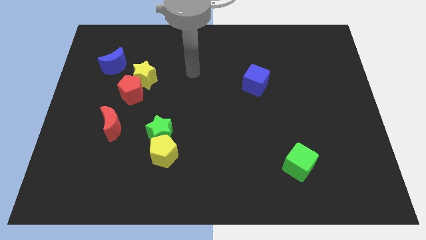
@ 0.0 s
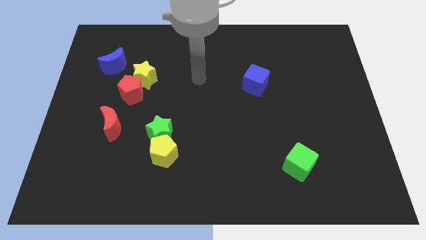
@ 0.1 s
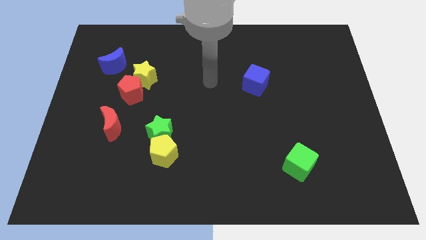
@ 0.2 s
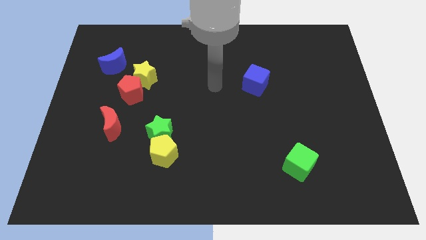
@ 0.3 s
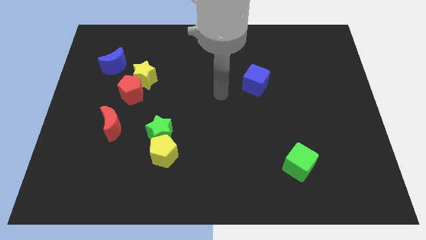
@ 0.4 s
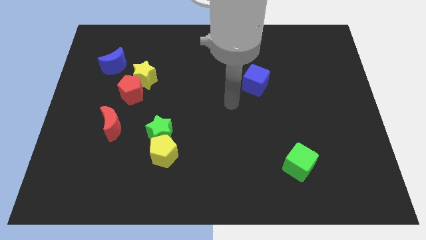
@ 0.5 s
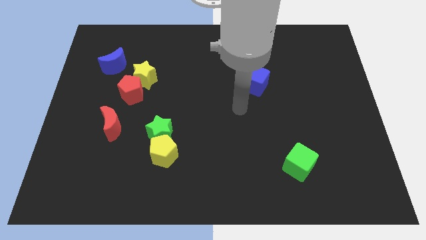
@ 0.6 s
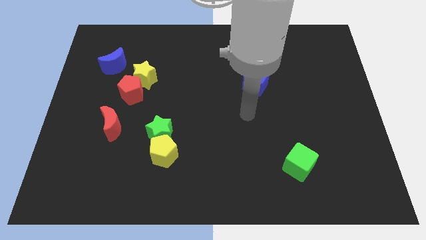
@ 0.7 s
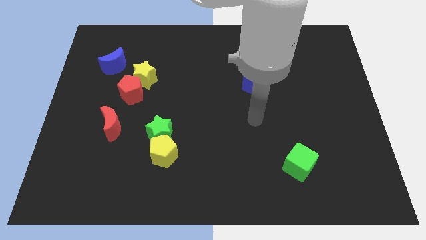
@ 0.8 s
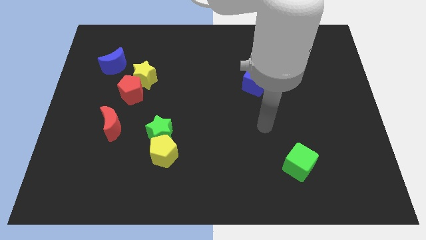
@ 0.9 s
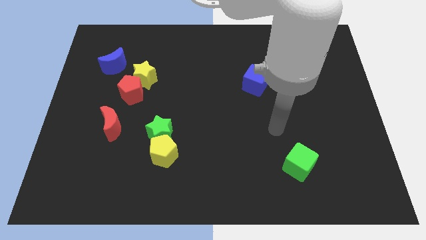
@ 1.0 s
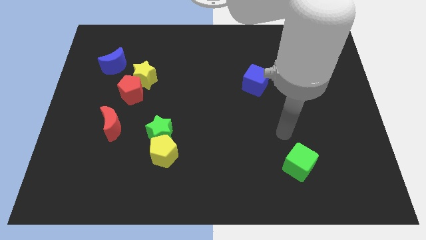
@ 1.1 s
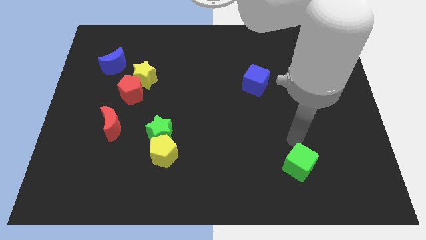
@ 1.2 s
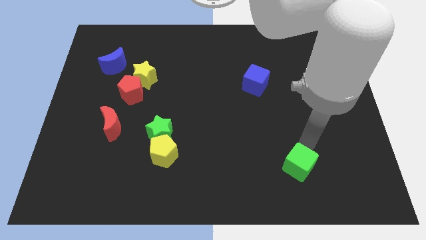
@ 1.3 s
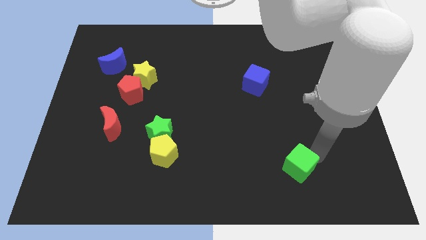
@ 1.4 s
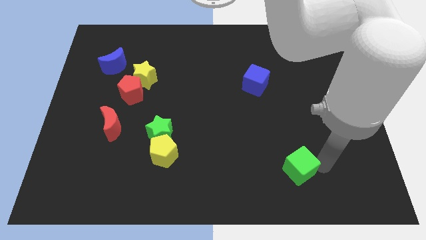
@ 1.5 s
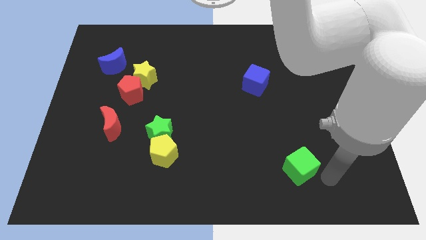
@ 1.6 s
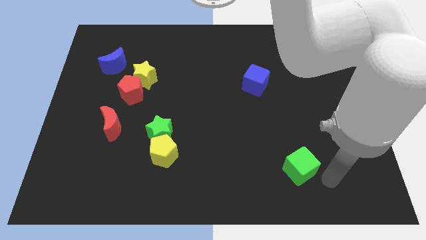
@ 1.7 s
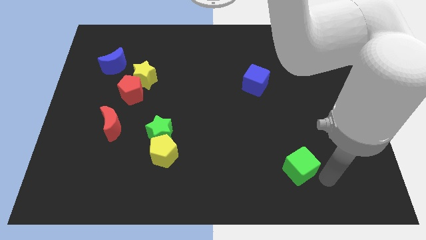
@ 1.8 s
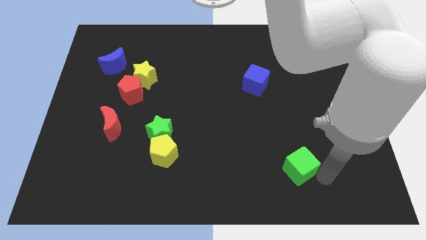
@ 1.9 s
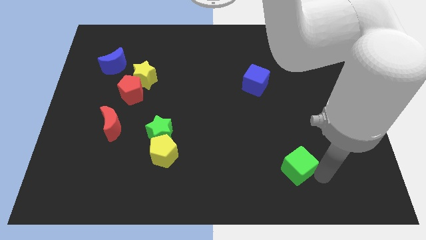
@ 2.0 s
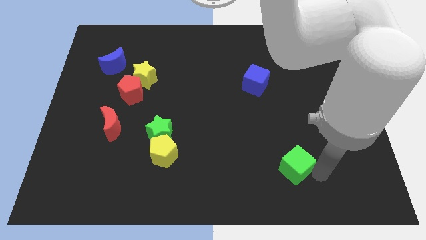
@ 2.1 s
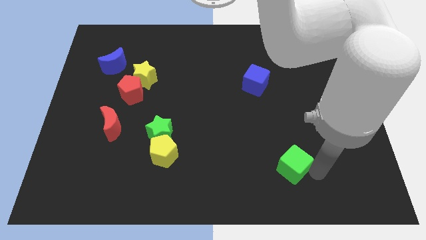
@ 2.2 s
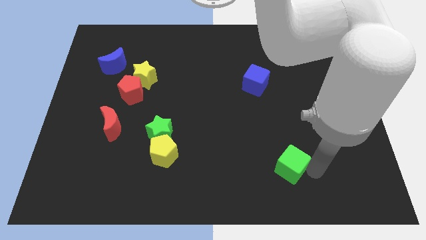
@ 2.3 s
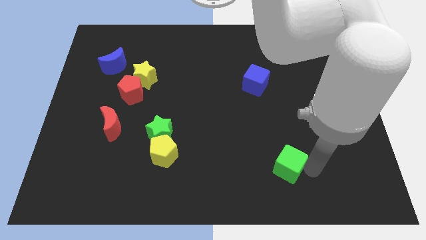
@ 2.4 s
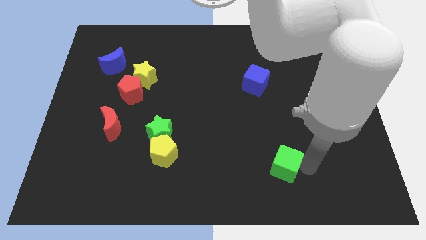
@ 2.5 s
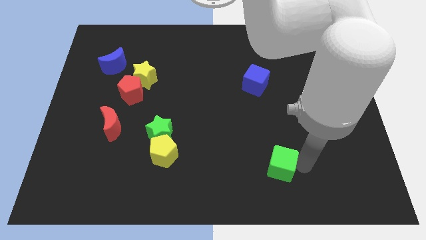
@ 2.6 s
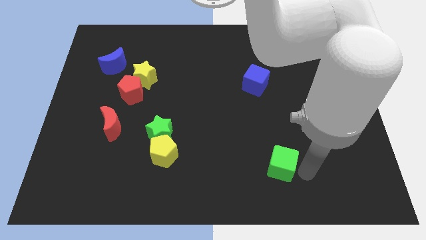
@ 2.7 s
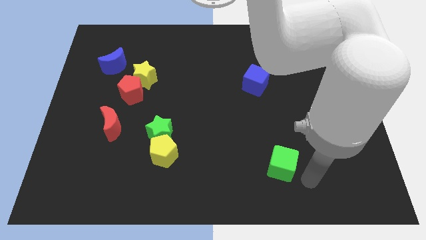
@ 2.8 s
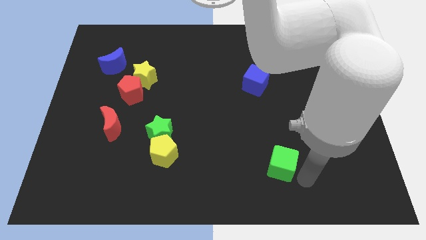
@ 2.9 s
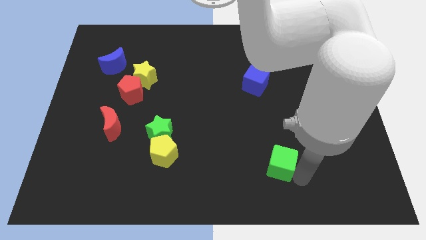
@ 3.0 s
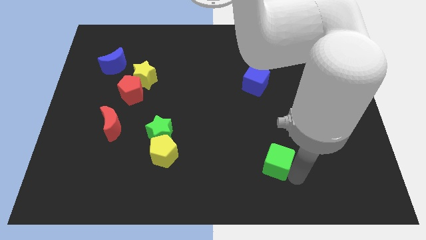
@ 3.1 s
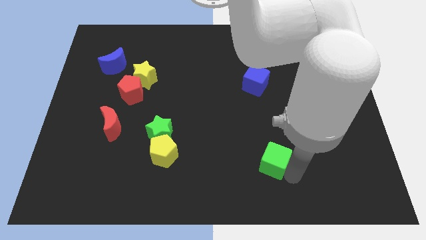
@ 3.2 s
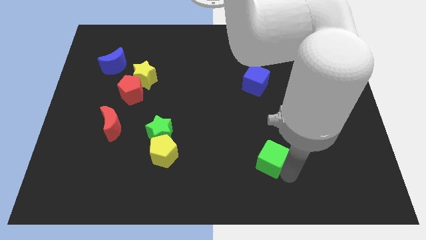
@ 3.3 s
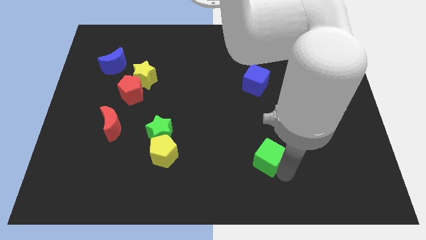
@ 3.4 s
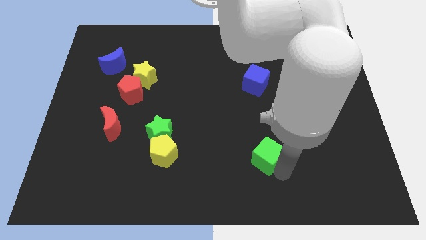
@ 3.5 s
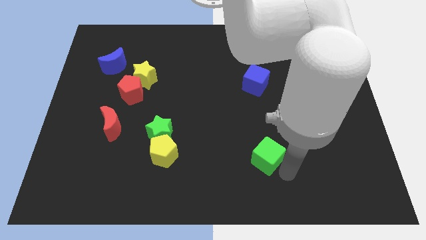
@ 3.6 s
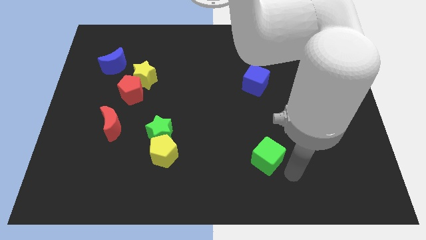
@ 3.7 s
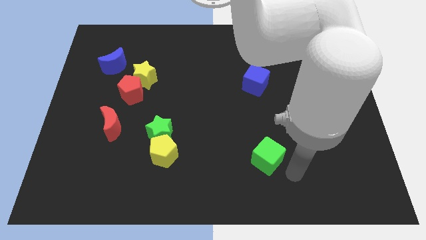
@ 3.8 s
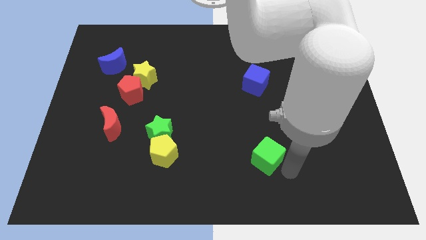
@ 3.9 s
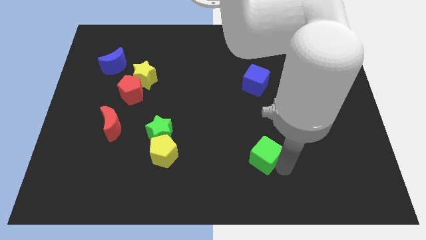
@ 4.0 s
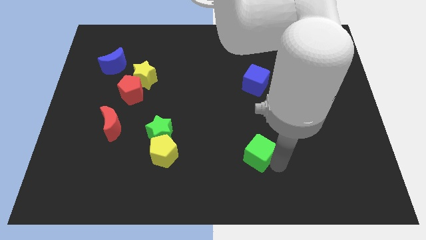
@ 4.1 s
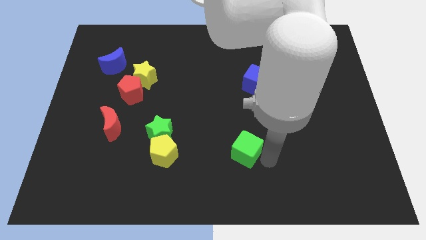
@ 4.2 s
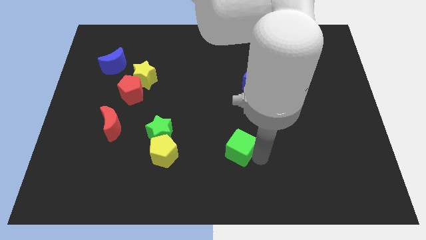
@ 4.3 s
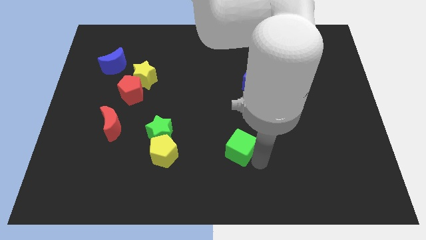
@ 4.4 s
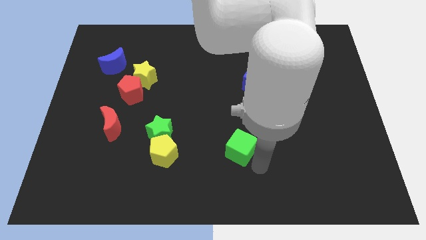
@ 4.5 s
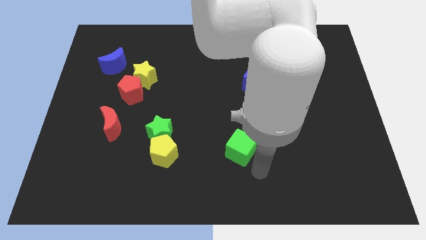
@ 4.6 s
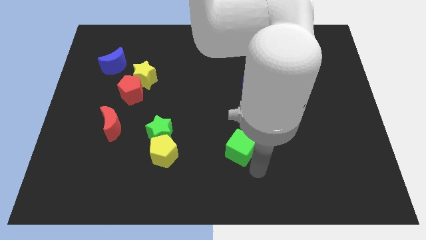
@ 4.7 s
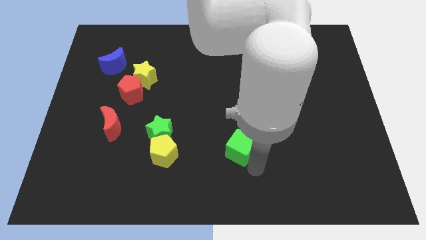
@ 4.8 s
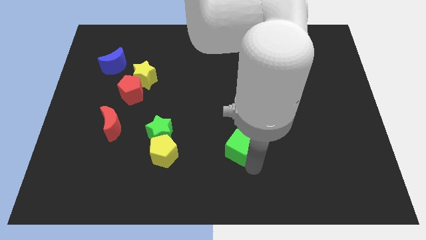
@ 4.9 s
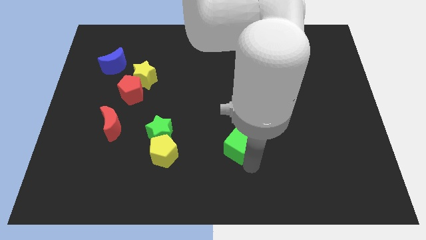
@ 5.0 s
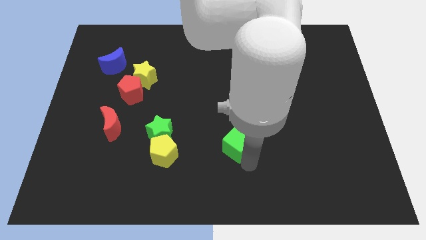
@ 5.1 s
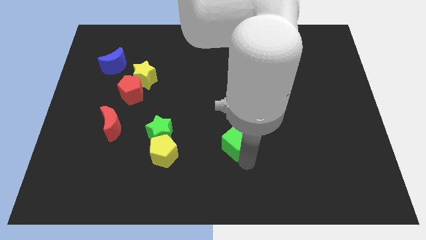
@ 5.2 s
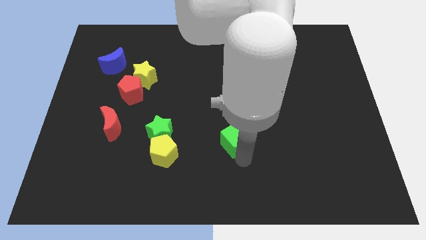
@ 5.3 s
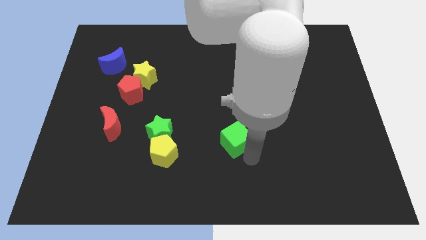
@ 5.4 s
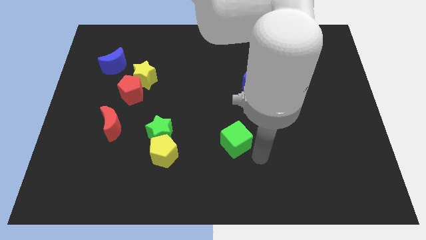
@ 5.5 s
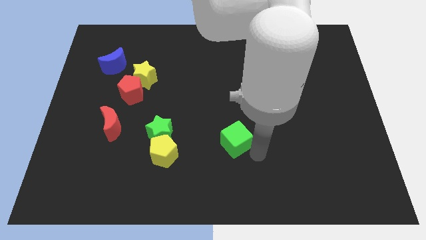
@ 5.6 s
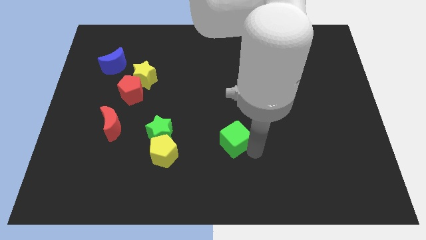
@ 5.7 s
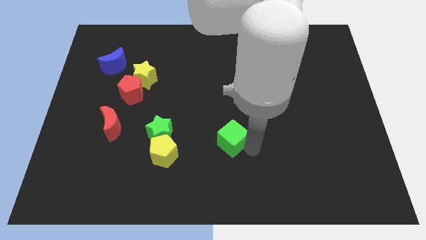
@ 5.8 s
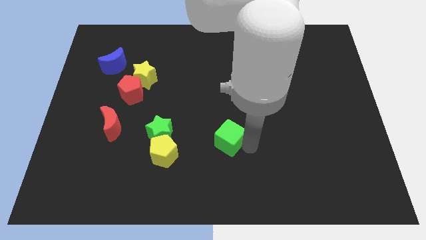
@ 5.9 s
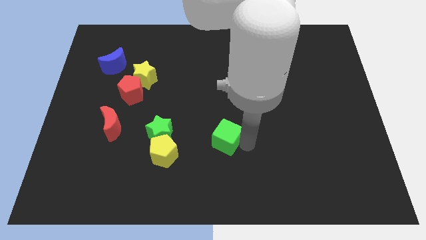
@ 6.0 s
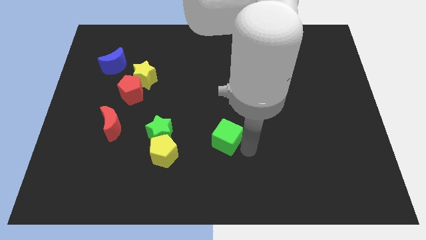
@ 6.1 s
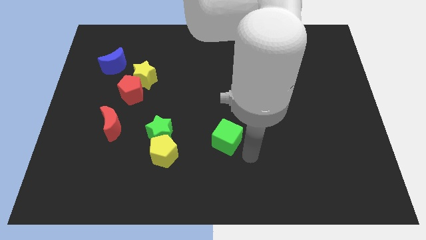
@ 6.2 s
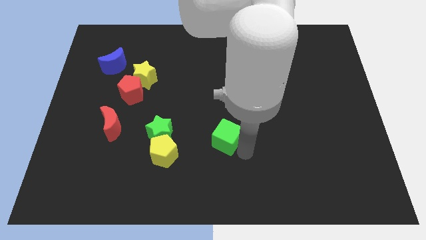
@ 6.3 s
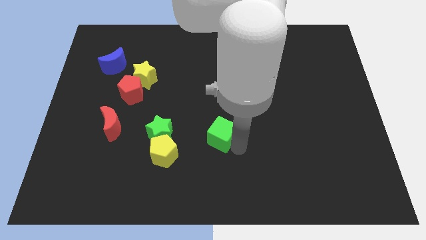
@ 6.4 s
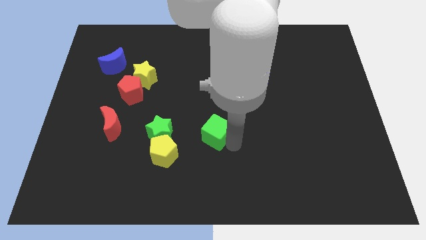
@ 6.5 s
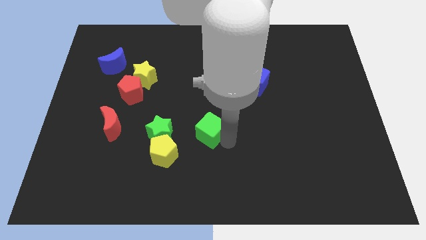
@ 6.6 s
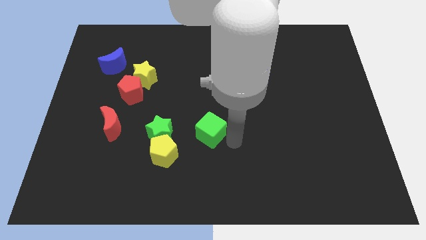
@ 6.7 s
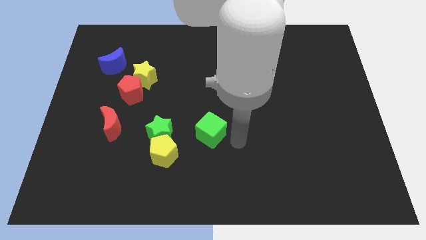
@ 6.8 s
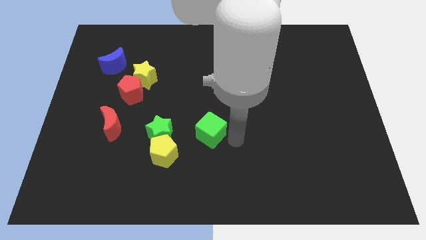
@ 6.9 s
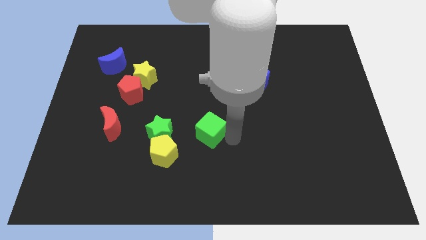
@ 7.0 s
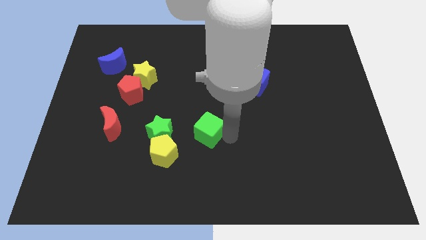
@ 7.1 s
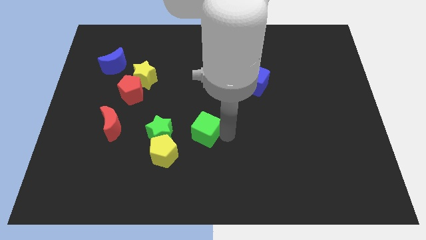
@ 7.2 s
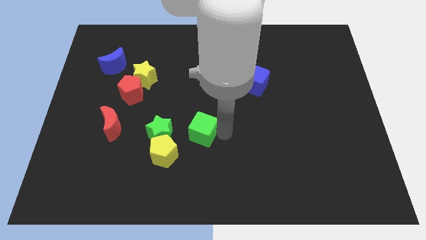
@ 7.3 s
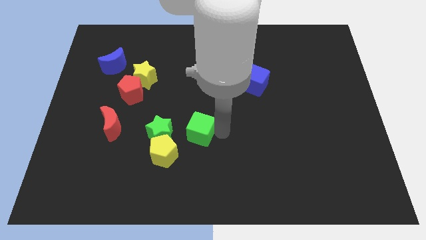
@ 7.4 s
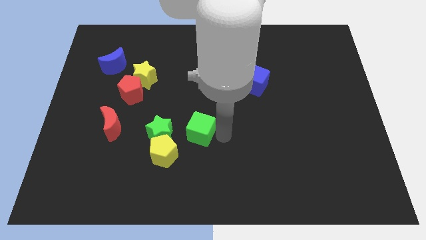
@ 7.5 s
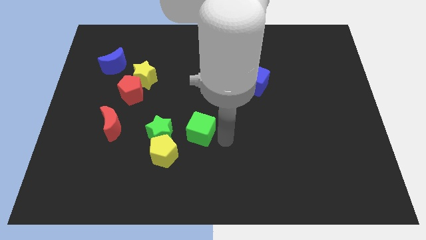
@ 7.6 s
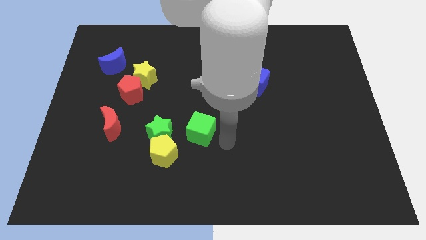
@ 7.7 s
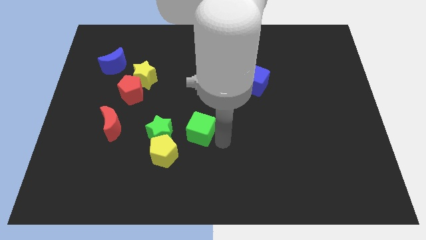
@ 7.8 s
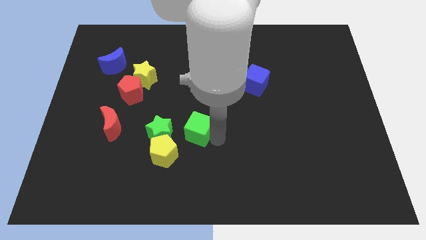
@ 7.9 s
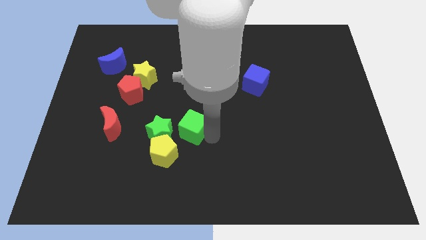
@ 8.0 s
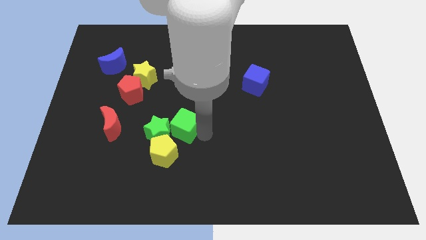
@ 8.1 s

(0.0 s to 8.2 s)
put the green cube above the yellow pentagon
